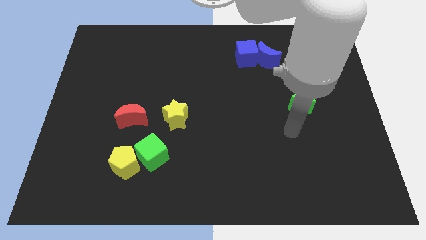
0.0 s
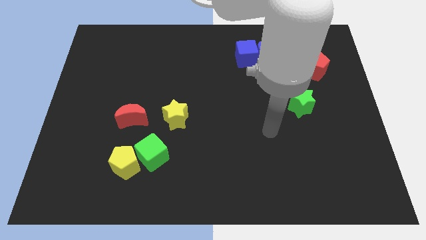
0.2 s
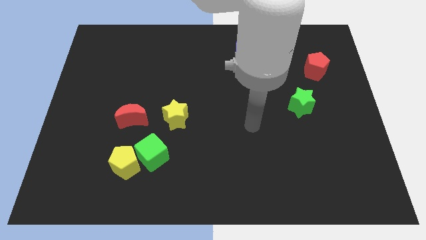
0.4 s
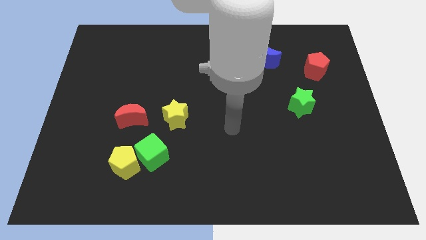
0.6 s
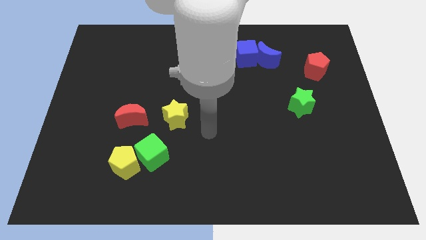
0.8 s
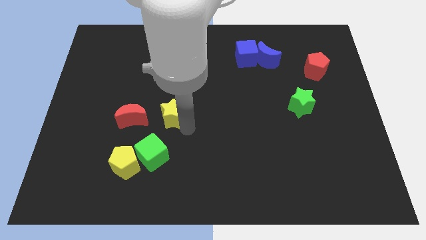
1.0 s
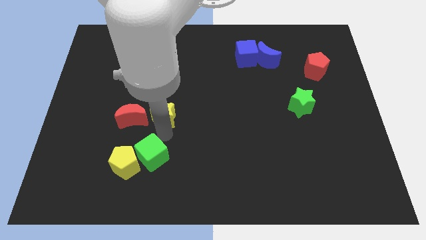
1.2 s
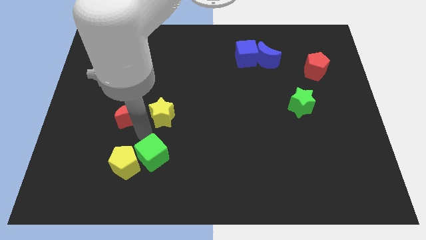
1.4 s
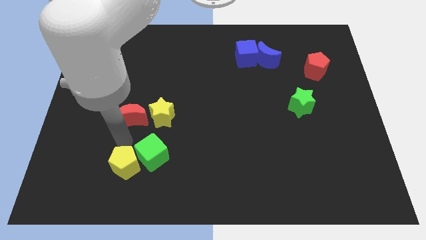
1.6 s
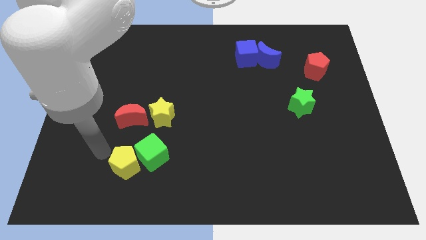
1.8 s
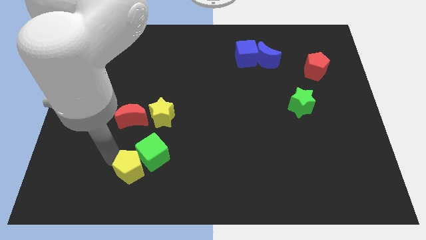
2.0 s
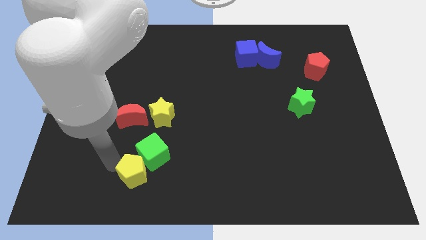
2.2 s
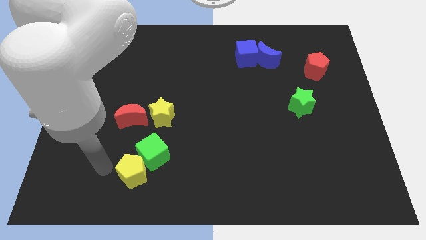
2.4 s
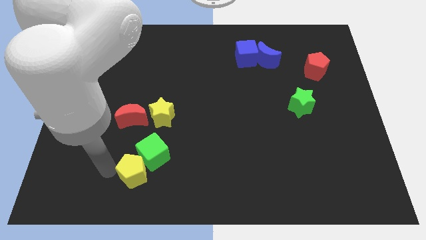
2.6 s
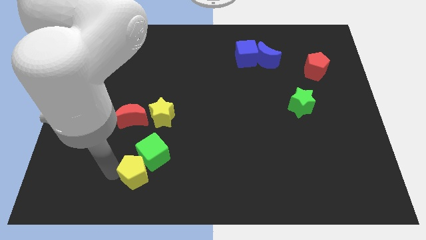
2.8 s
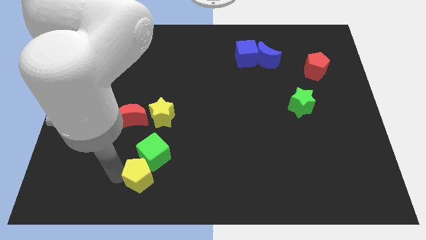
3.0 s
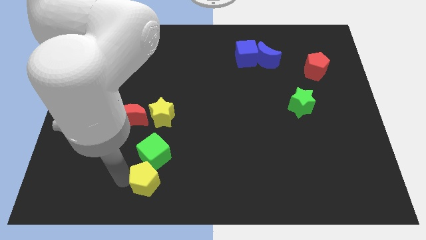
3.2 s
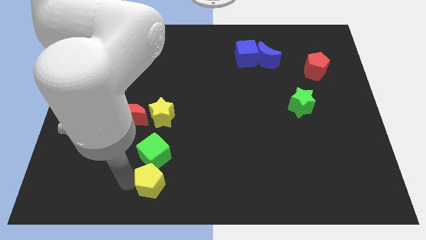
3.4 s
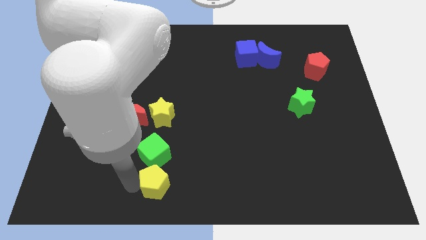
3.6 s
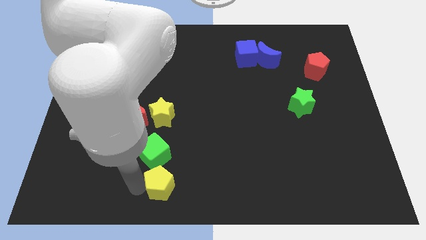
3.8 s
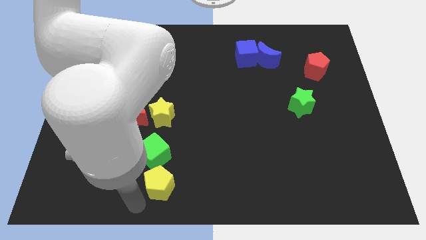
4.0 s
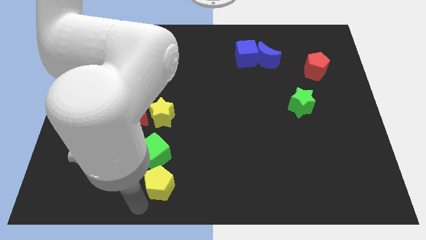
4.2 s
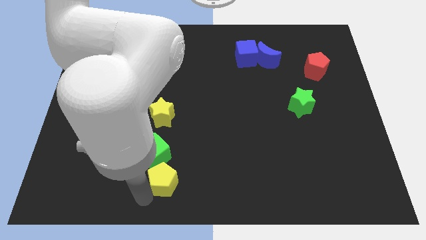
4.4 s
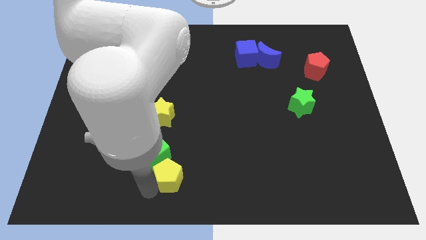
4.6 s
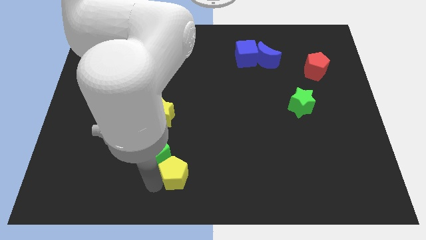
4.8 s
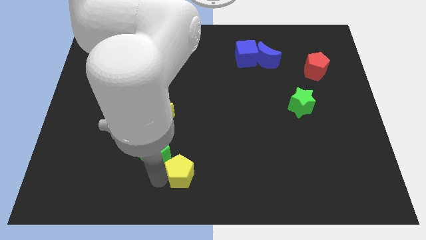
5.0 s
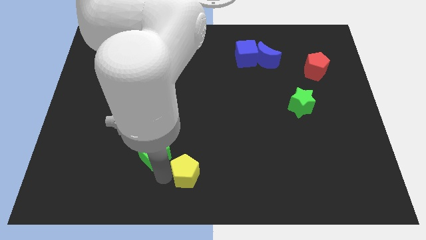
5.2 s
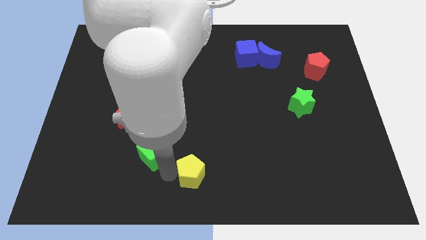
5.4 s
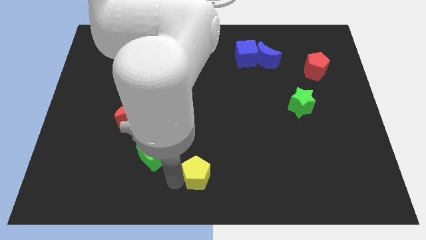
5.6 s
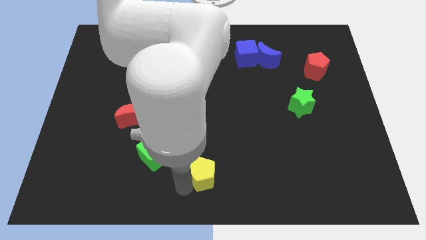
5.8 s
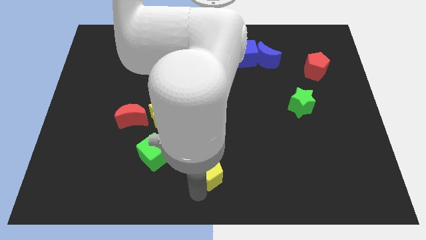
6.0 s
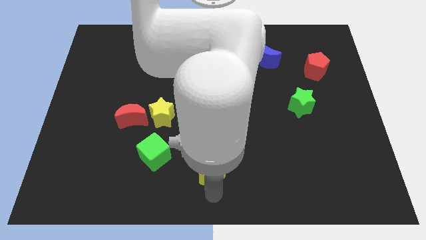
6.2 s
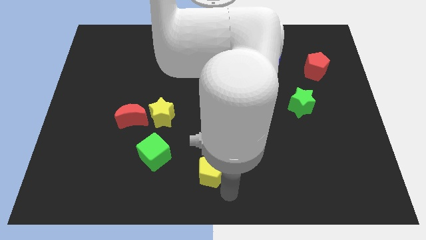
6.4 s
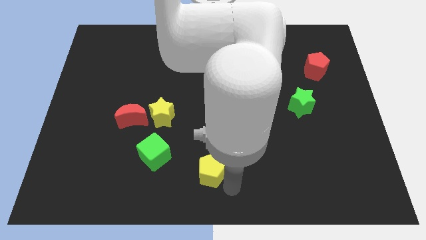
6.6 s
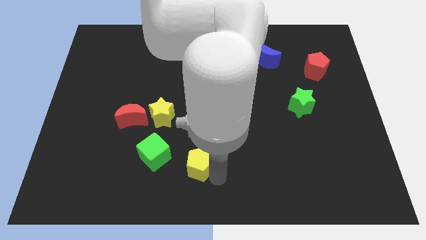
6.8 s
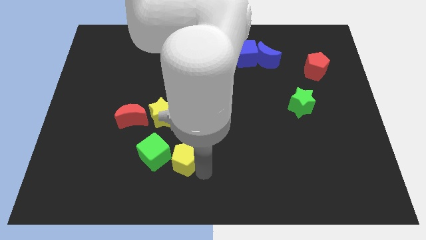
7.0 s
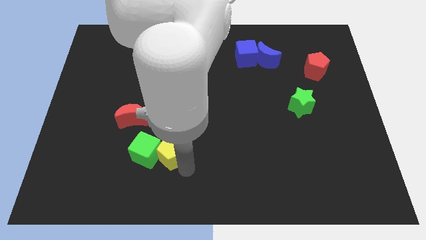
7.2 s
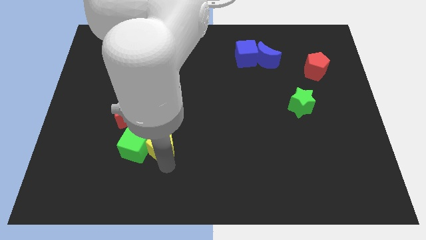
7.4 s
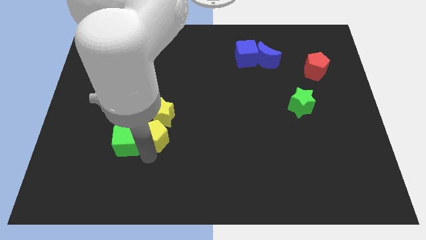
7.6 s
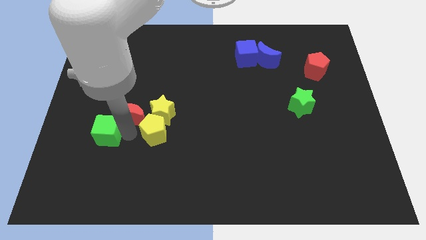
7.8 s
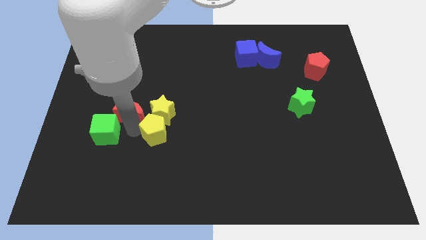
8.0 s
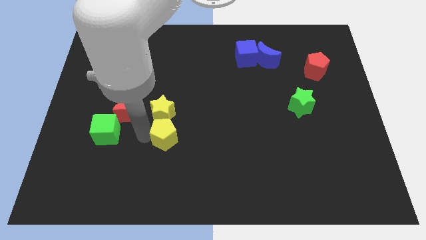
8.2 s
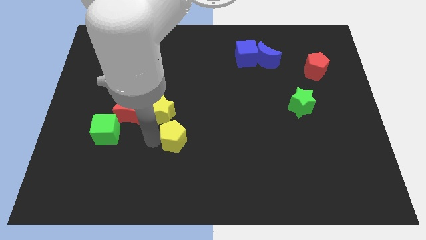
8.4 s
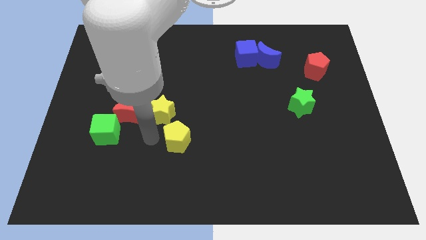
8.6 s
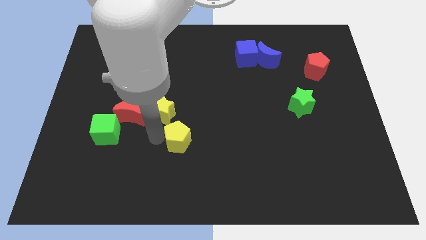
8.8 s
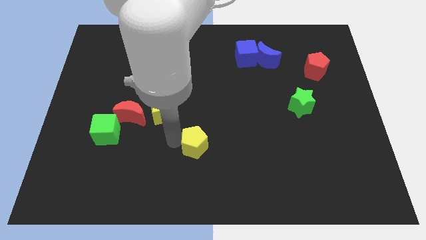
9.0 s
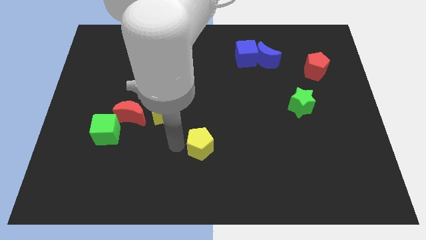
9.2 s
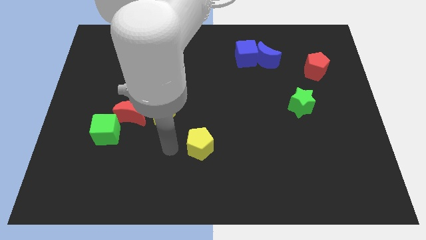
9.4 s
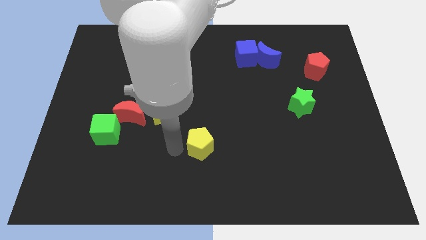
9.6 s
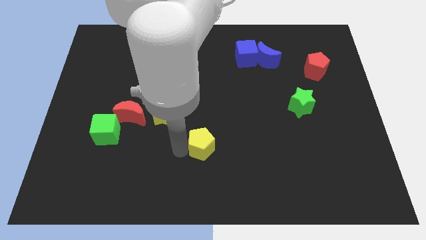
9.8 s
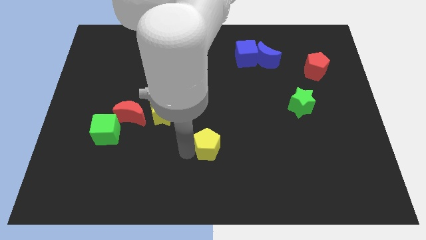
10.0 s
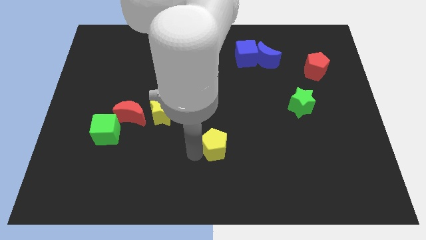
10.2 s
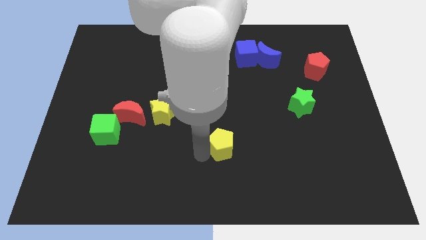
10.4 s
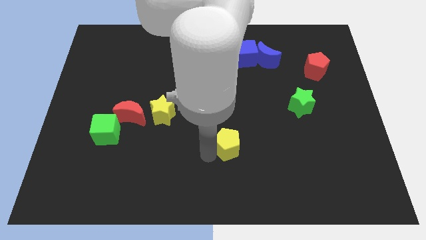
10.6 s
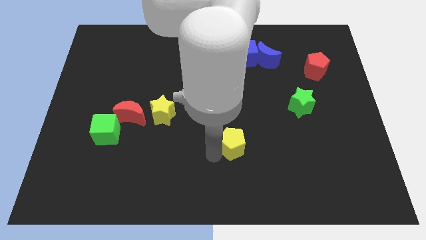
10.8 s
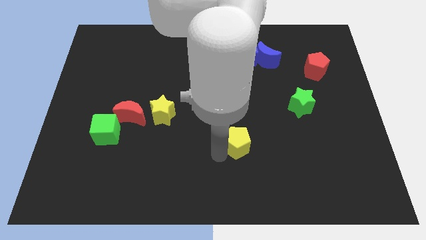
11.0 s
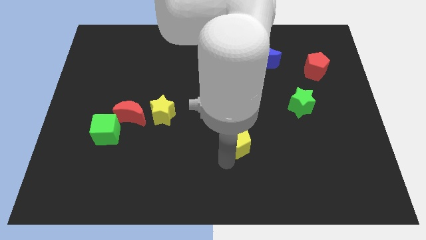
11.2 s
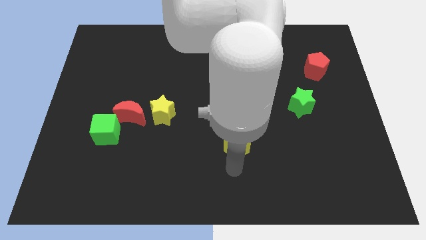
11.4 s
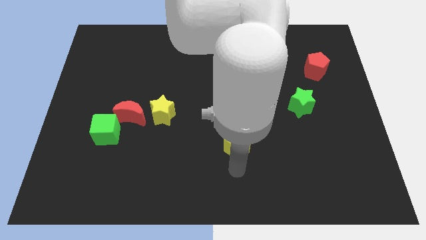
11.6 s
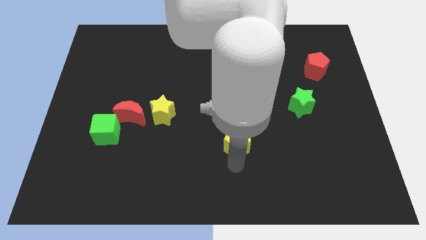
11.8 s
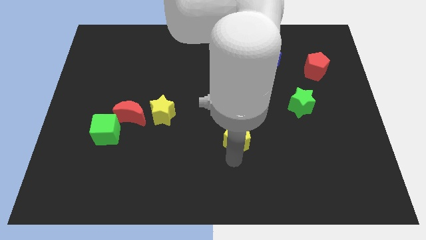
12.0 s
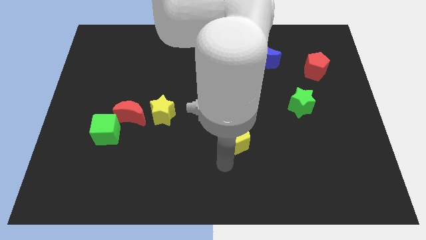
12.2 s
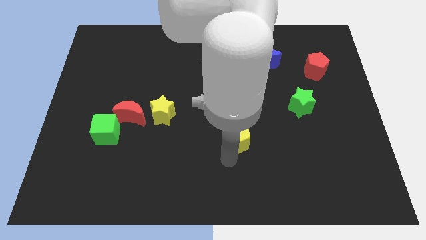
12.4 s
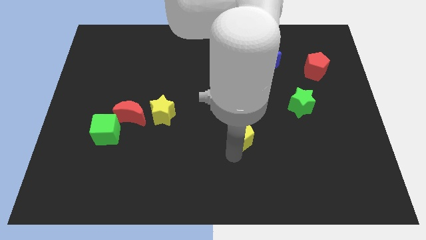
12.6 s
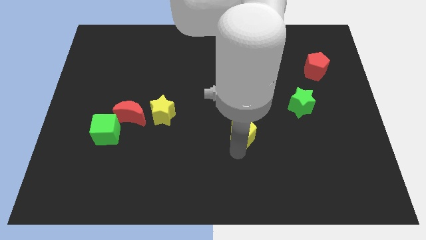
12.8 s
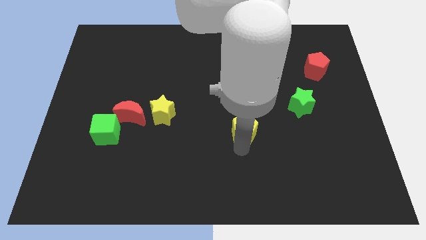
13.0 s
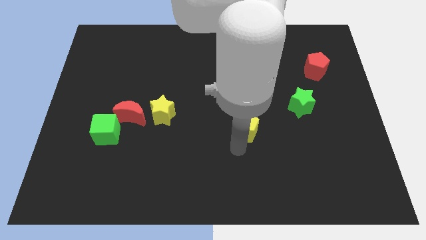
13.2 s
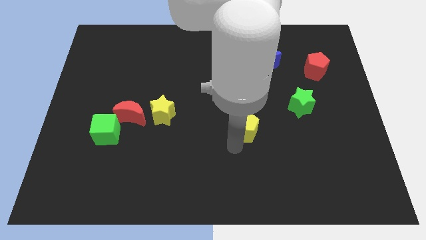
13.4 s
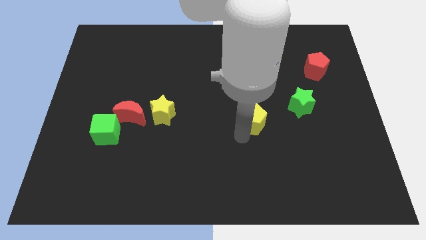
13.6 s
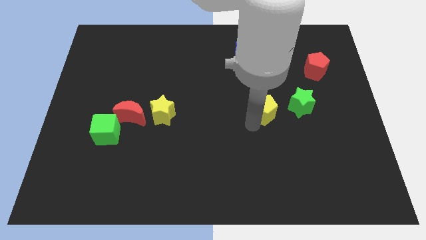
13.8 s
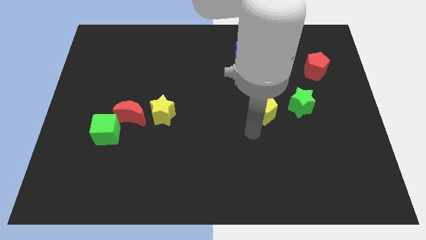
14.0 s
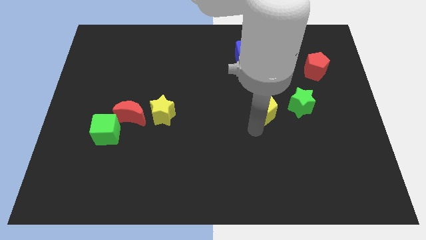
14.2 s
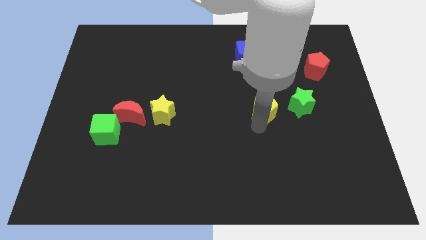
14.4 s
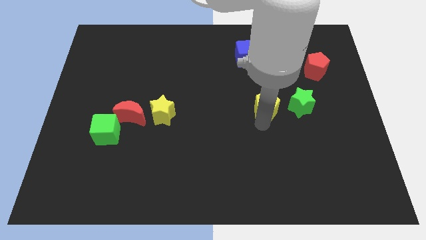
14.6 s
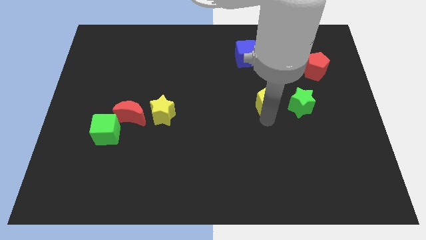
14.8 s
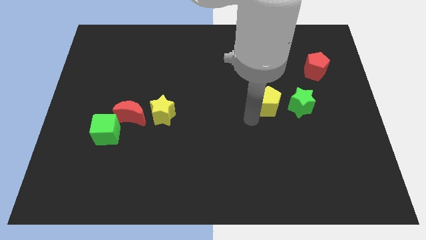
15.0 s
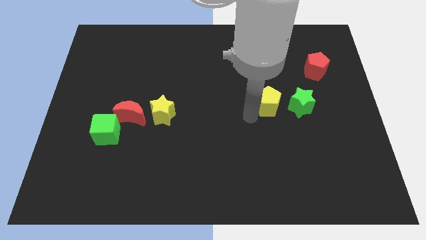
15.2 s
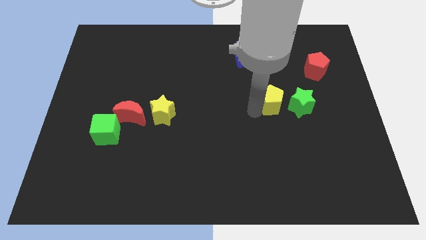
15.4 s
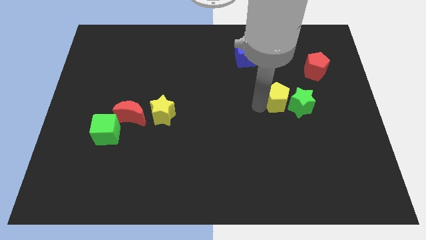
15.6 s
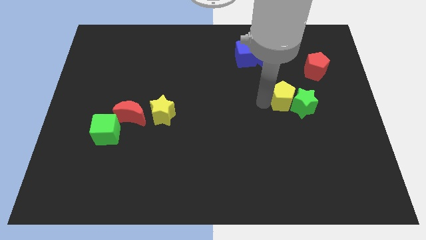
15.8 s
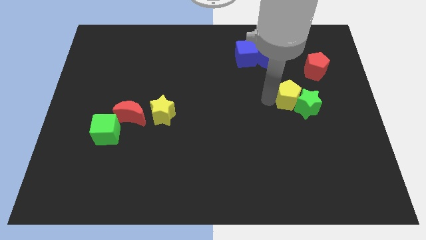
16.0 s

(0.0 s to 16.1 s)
slide the yellow pentagon to the bottom left of the red pentagon
